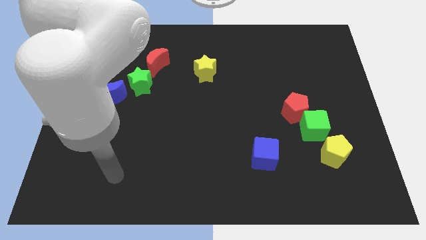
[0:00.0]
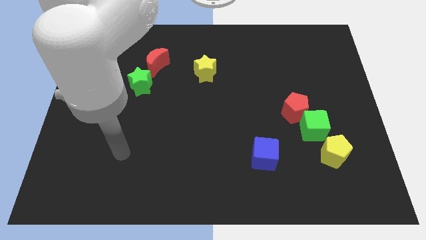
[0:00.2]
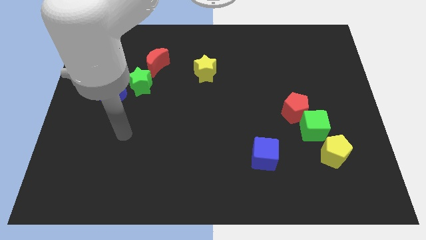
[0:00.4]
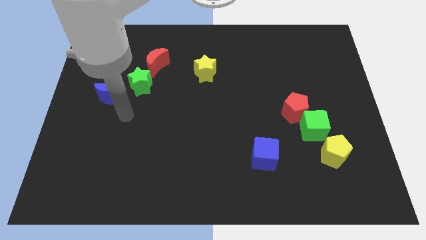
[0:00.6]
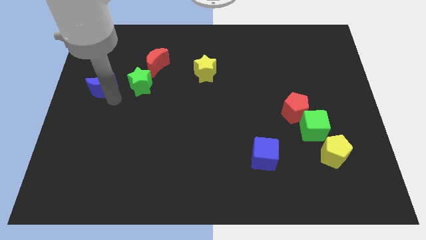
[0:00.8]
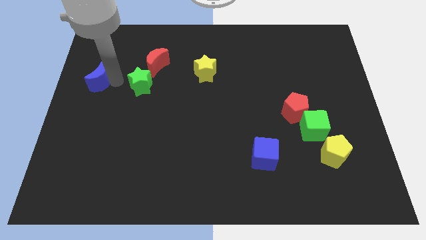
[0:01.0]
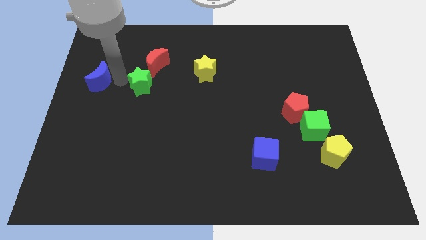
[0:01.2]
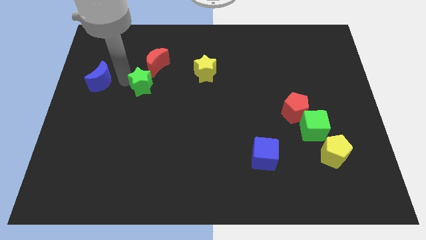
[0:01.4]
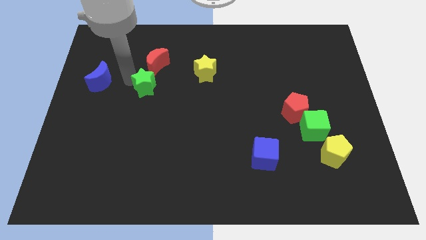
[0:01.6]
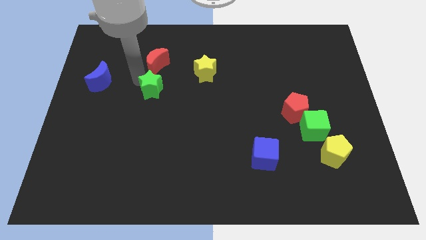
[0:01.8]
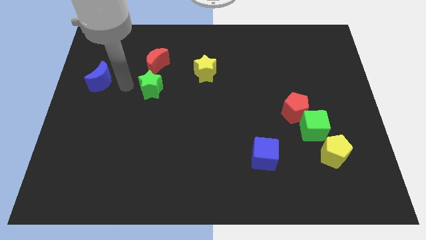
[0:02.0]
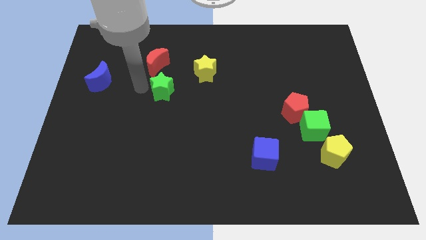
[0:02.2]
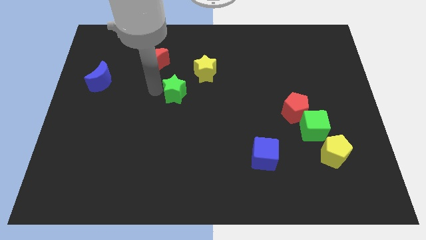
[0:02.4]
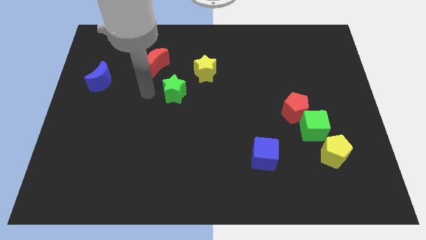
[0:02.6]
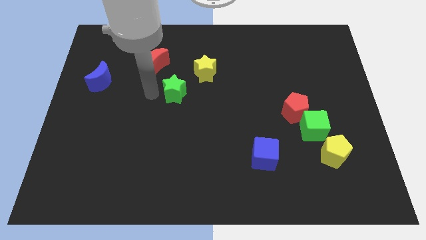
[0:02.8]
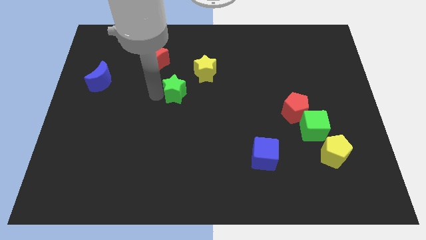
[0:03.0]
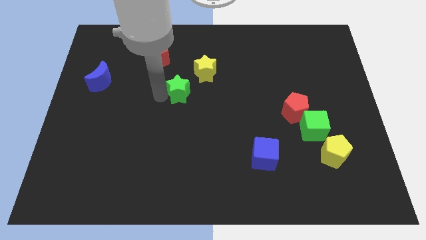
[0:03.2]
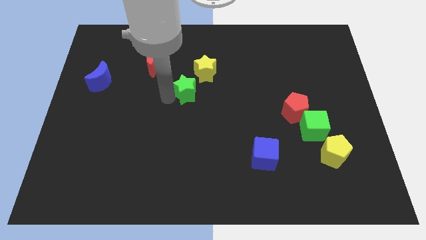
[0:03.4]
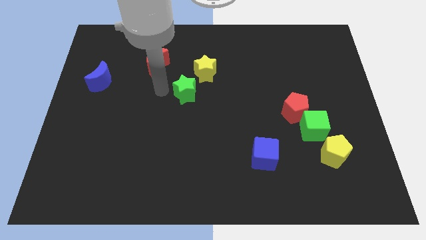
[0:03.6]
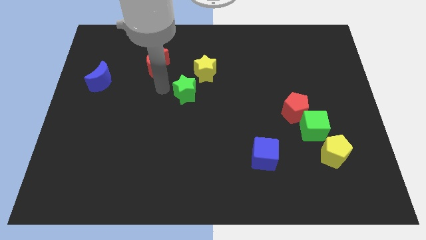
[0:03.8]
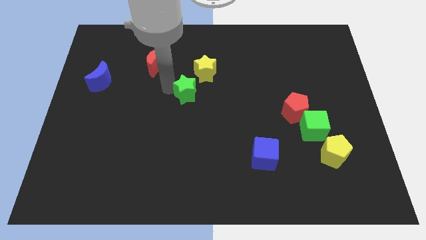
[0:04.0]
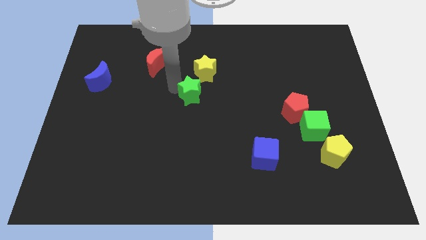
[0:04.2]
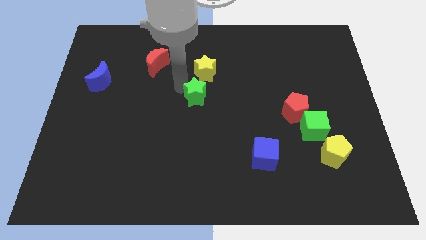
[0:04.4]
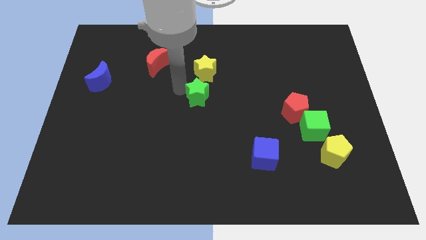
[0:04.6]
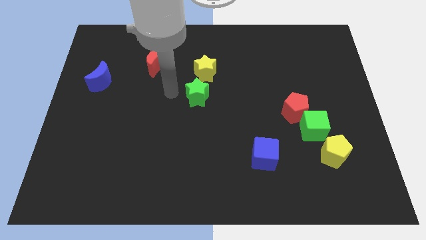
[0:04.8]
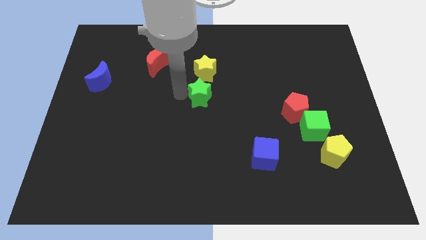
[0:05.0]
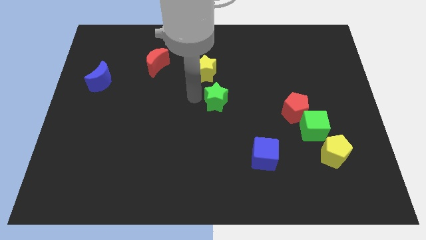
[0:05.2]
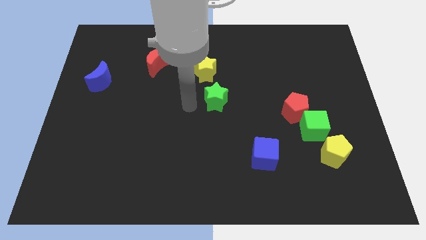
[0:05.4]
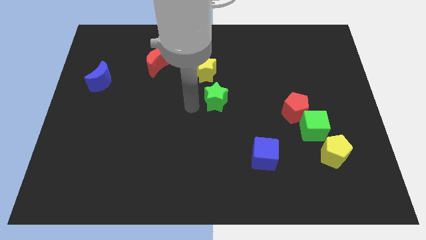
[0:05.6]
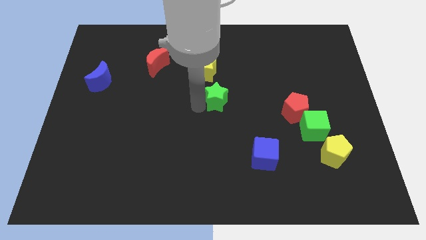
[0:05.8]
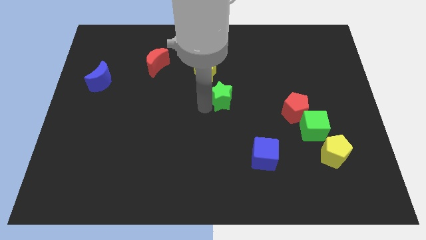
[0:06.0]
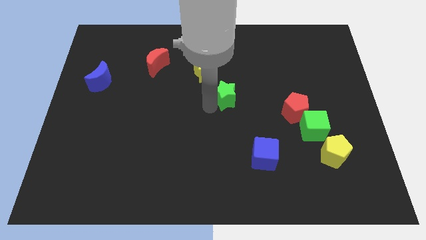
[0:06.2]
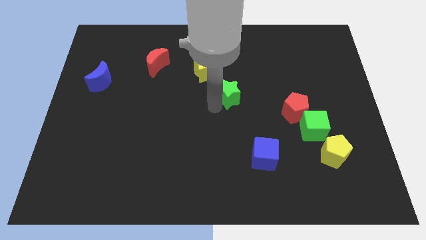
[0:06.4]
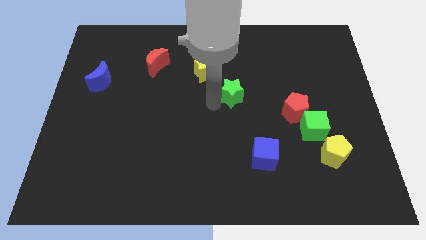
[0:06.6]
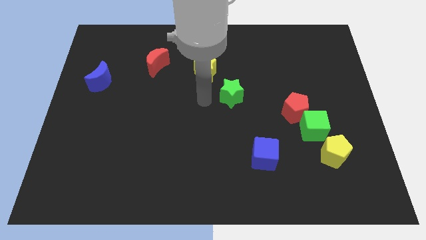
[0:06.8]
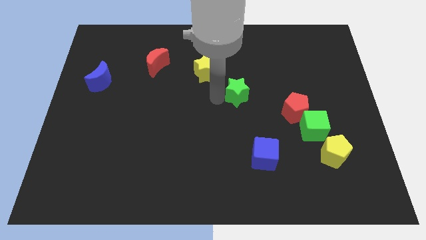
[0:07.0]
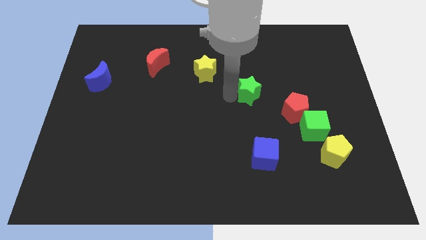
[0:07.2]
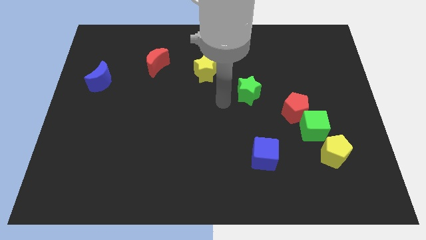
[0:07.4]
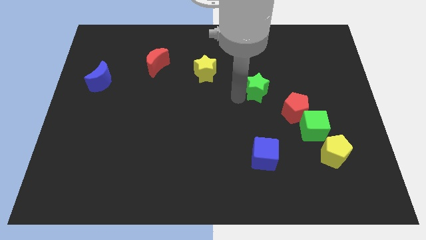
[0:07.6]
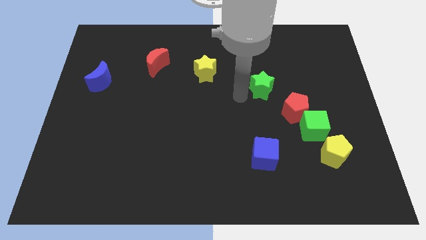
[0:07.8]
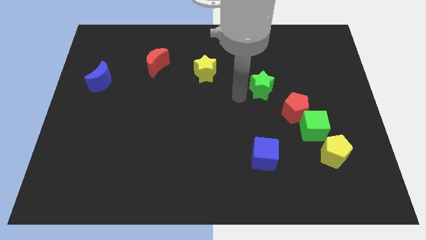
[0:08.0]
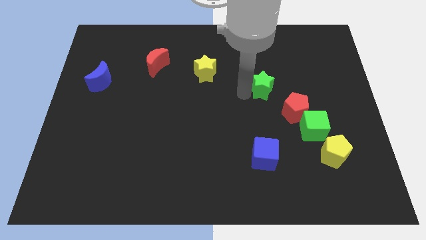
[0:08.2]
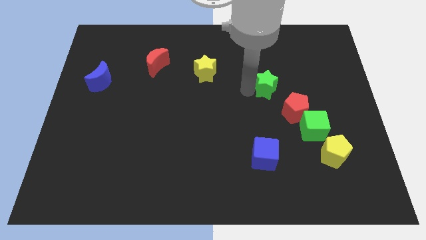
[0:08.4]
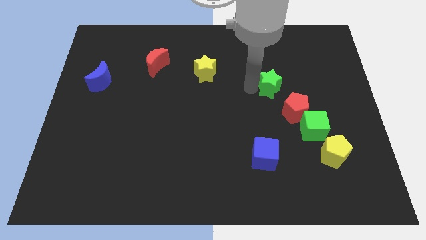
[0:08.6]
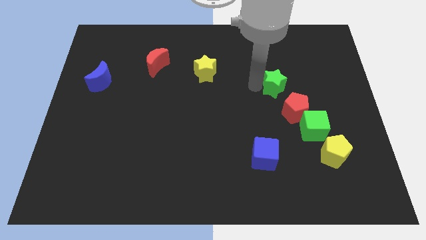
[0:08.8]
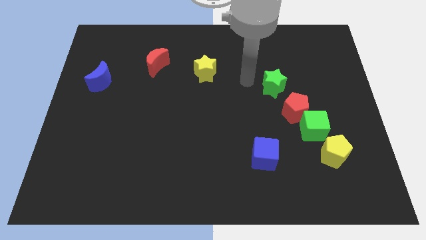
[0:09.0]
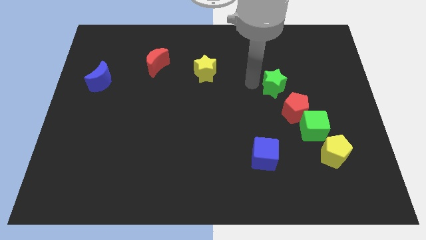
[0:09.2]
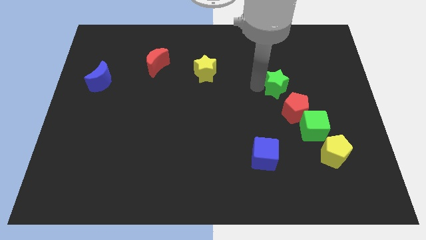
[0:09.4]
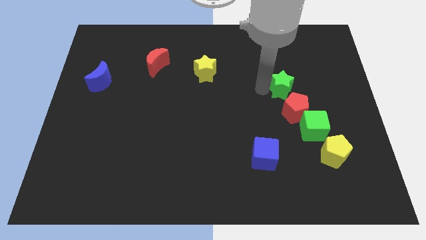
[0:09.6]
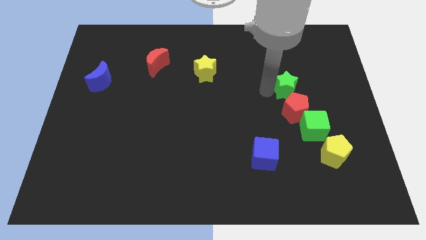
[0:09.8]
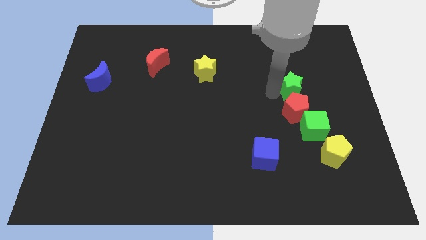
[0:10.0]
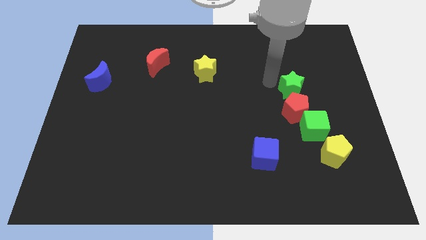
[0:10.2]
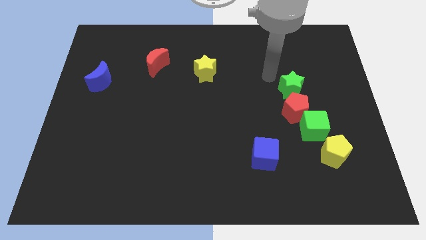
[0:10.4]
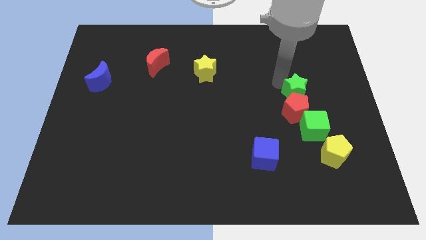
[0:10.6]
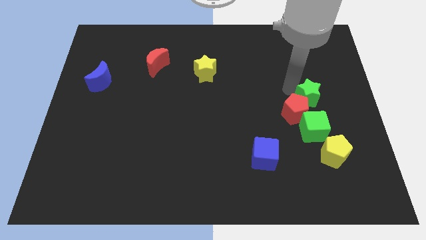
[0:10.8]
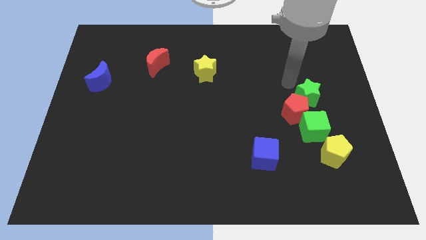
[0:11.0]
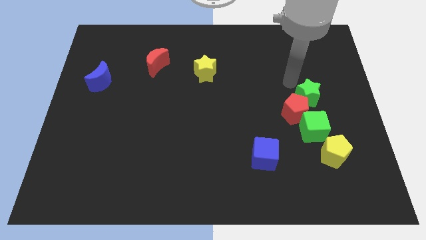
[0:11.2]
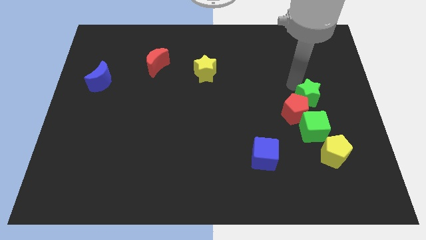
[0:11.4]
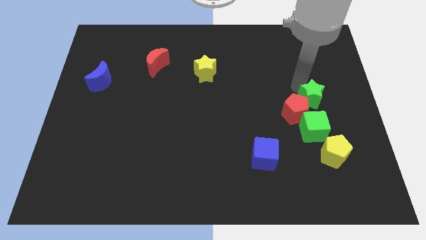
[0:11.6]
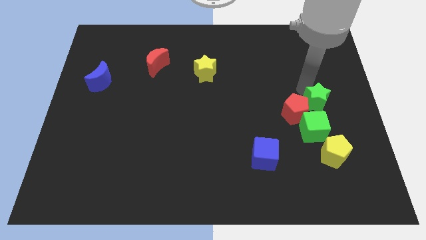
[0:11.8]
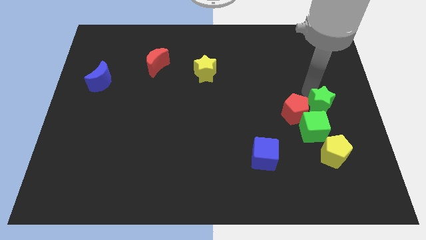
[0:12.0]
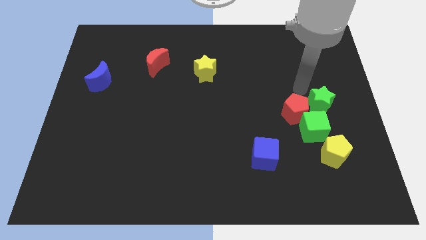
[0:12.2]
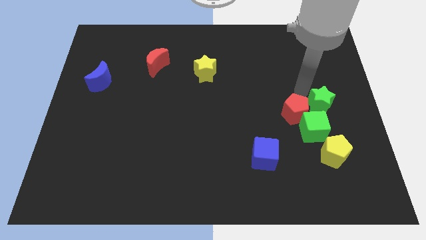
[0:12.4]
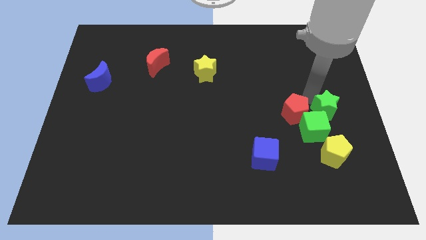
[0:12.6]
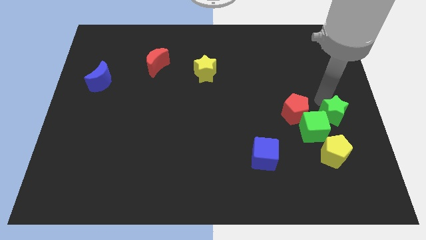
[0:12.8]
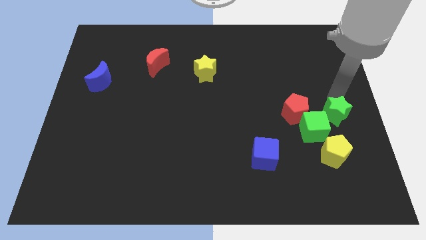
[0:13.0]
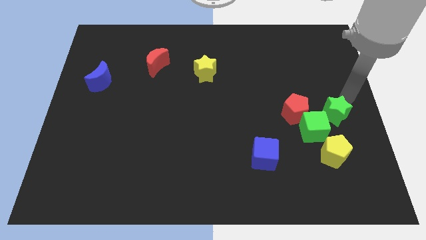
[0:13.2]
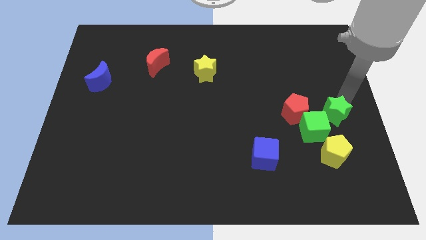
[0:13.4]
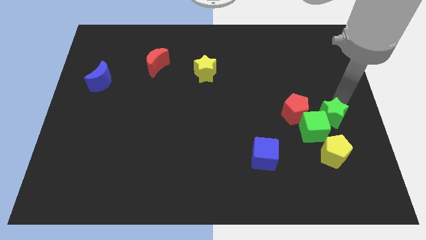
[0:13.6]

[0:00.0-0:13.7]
move the green star diagonally down and to the right of the red pentagon
